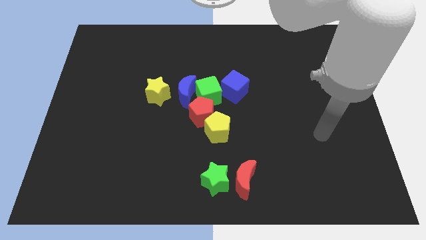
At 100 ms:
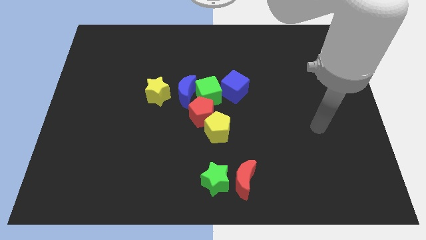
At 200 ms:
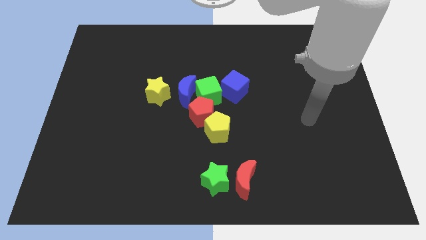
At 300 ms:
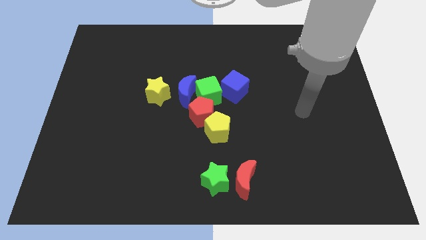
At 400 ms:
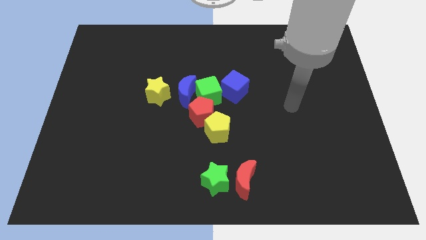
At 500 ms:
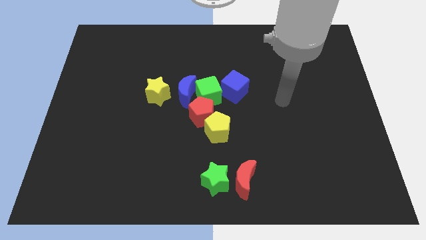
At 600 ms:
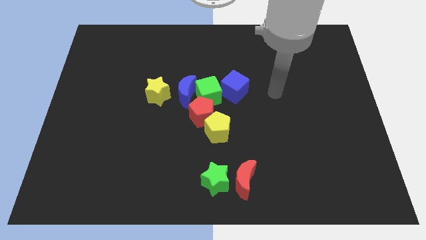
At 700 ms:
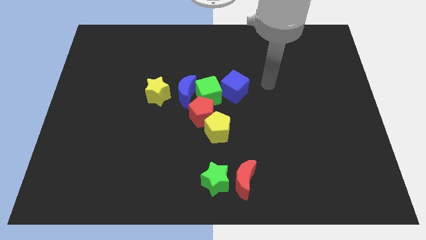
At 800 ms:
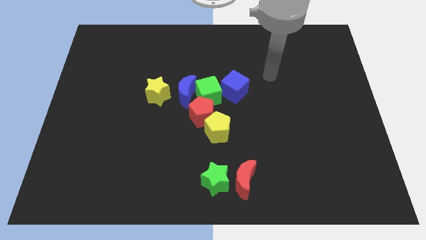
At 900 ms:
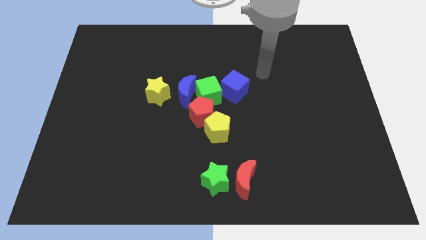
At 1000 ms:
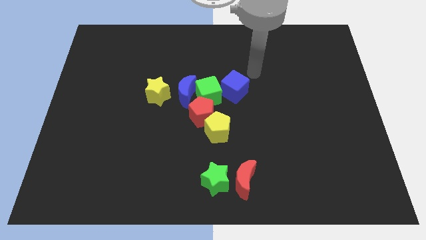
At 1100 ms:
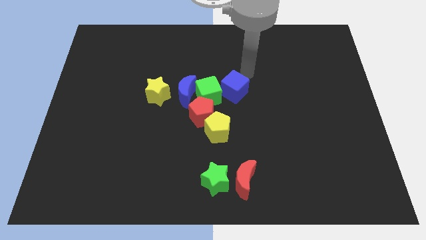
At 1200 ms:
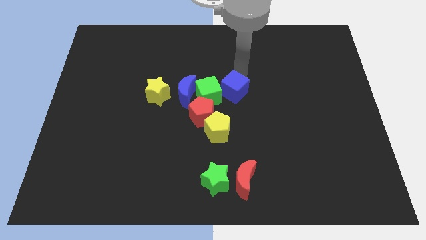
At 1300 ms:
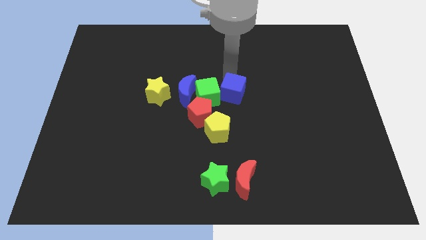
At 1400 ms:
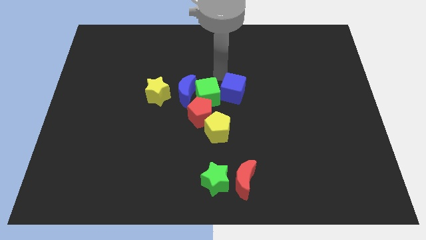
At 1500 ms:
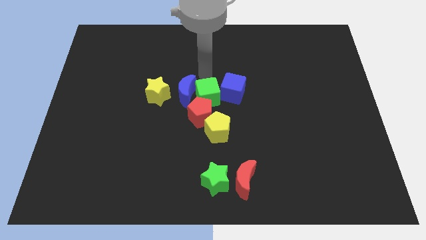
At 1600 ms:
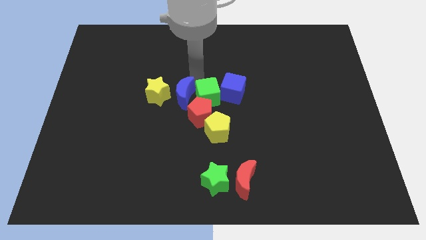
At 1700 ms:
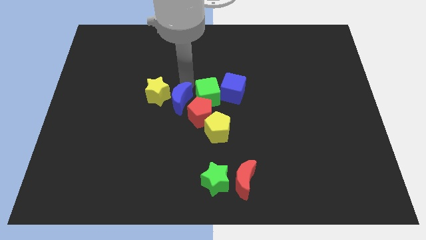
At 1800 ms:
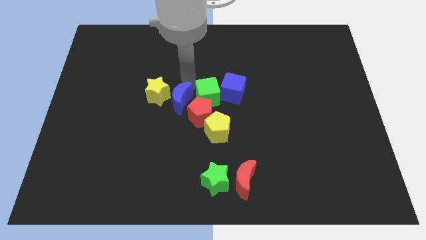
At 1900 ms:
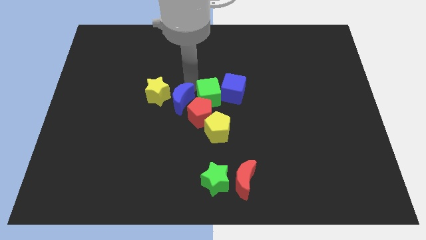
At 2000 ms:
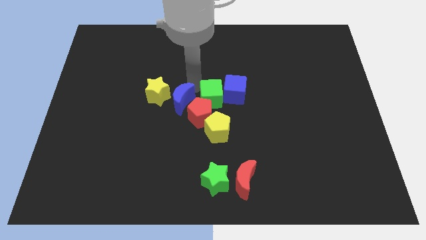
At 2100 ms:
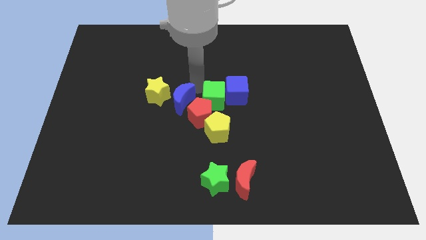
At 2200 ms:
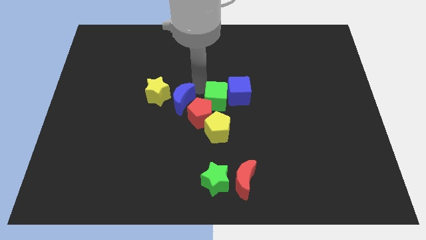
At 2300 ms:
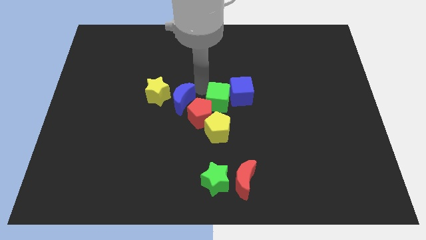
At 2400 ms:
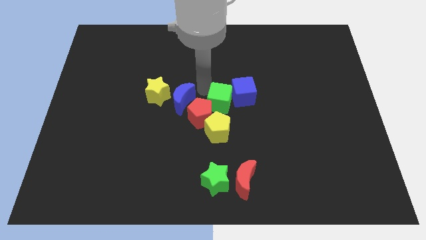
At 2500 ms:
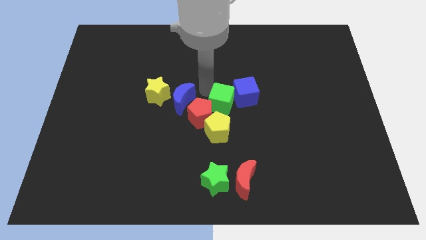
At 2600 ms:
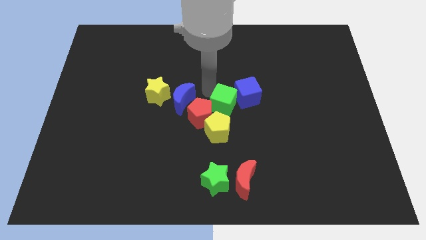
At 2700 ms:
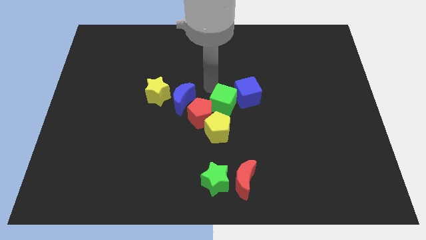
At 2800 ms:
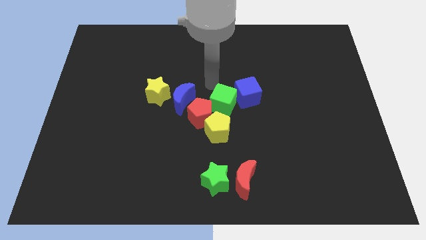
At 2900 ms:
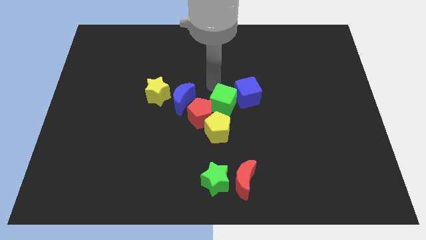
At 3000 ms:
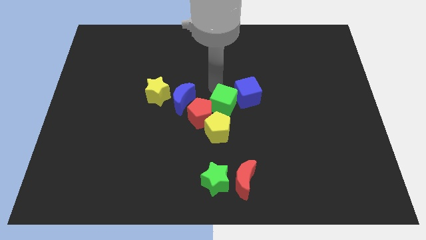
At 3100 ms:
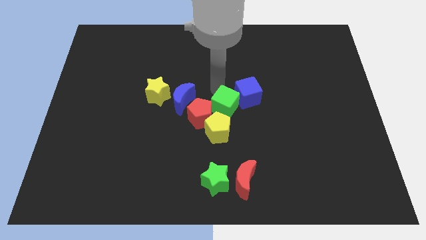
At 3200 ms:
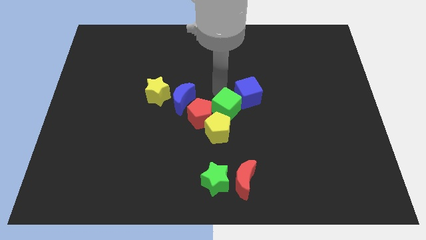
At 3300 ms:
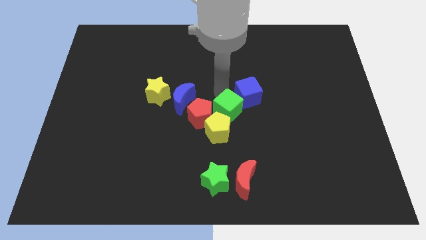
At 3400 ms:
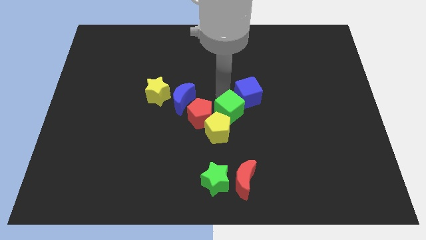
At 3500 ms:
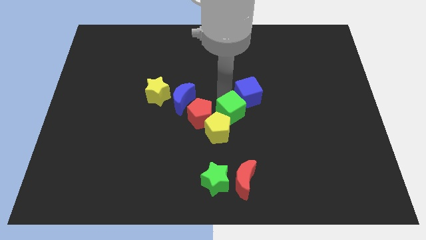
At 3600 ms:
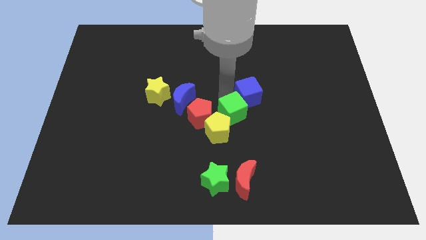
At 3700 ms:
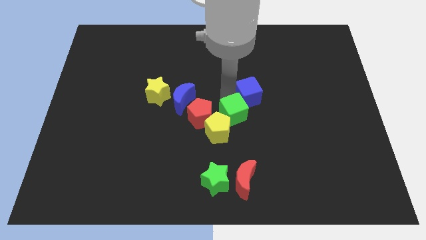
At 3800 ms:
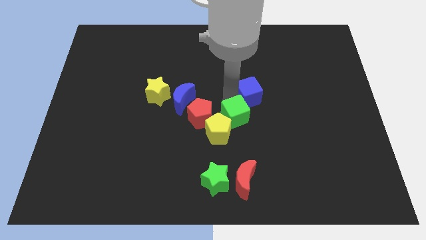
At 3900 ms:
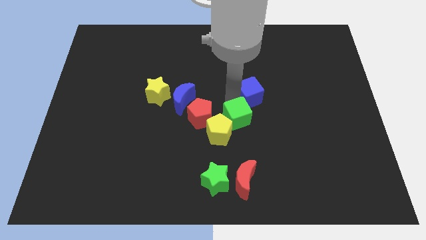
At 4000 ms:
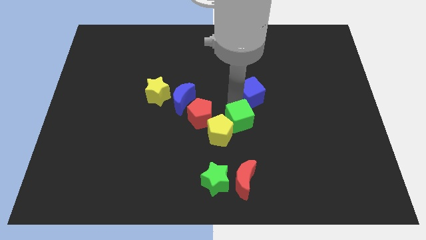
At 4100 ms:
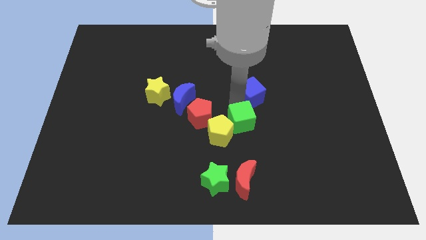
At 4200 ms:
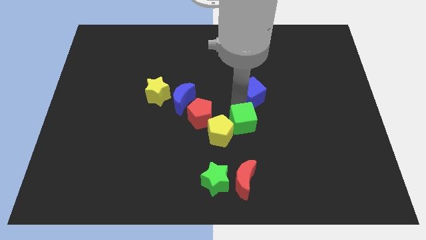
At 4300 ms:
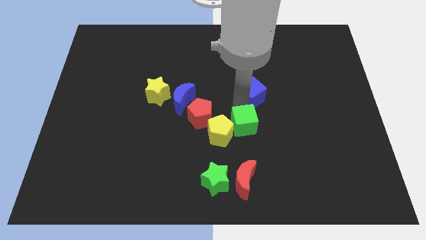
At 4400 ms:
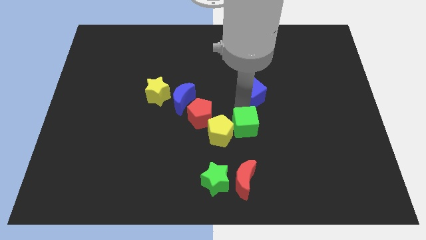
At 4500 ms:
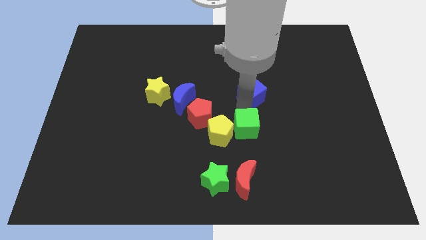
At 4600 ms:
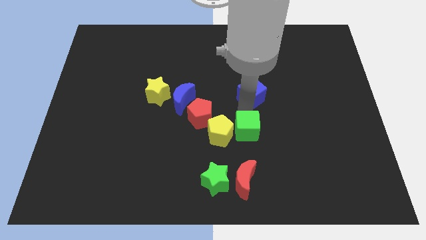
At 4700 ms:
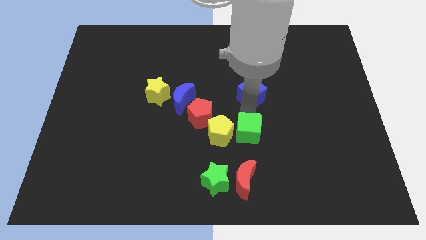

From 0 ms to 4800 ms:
slide the green cube slightly down

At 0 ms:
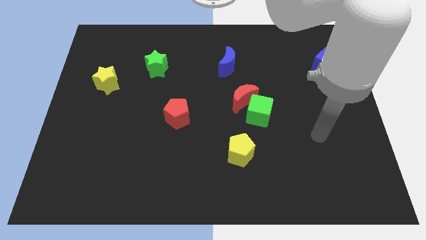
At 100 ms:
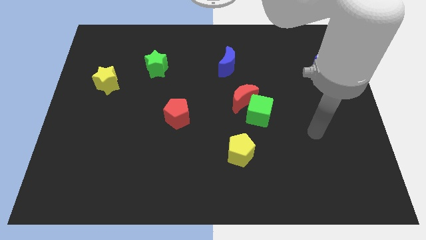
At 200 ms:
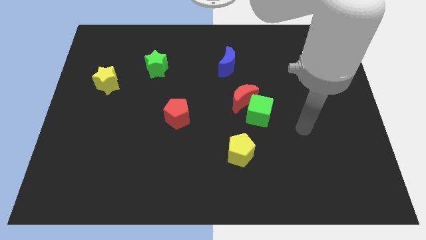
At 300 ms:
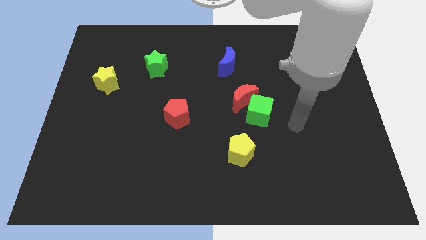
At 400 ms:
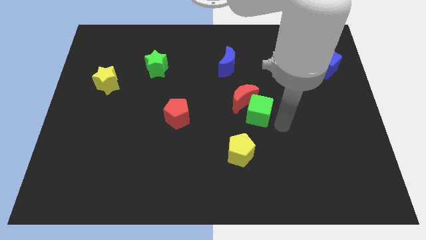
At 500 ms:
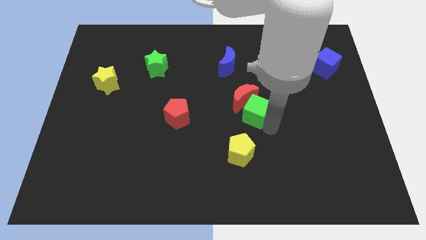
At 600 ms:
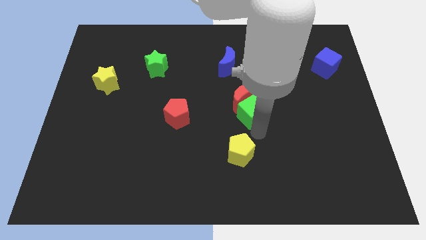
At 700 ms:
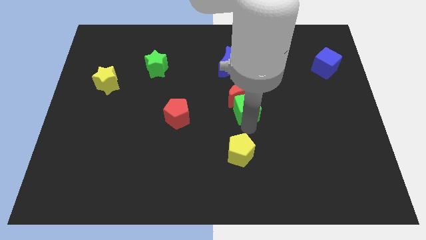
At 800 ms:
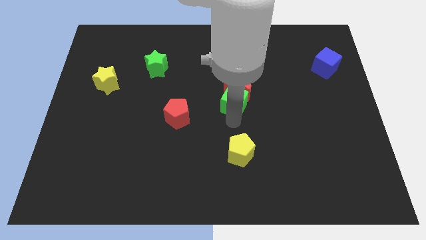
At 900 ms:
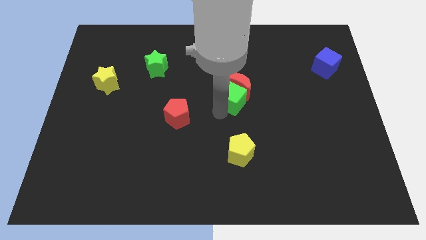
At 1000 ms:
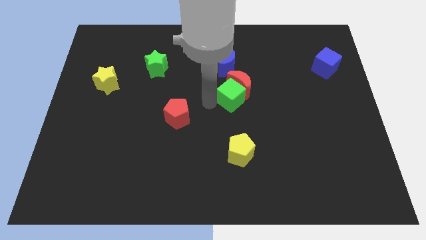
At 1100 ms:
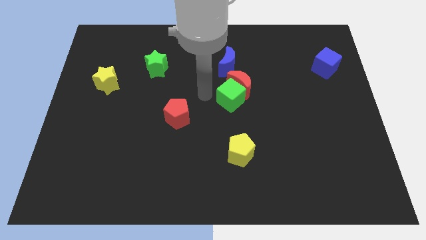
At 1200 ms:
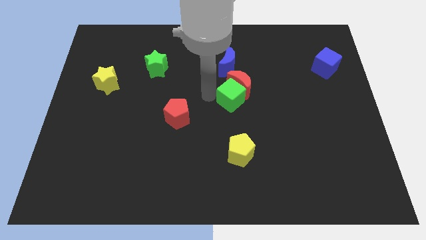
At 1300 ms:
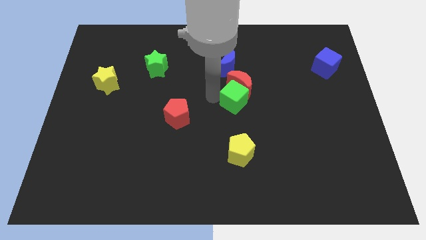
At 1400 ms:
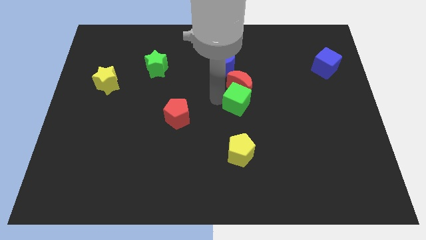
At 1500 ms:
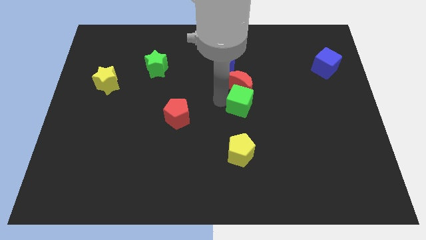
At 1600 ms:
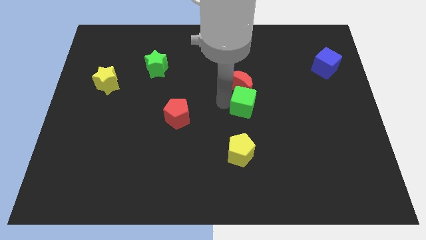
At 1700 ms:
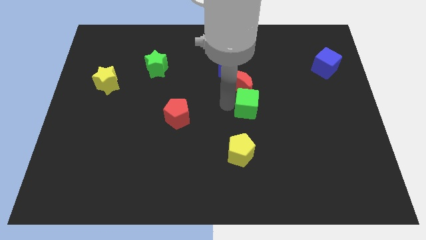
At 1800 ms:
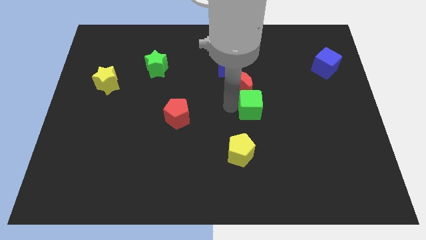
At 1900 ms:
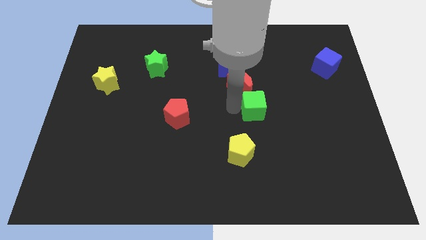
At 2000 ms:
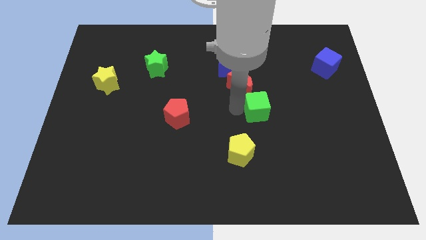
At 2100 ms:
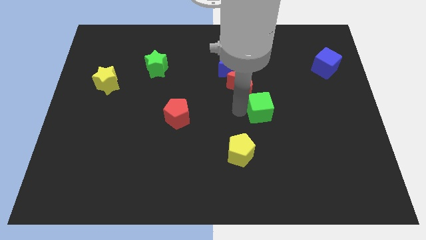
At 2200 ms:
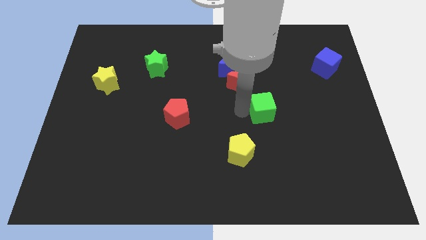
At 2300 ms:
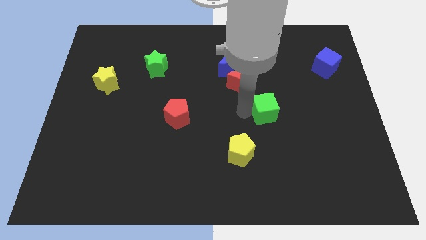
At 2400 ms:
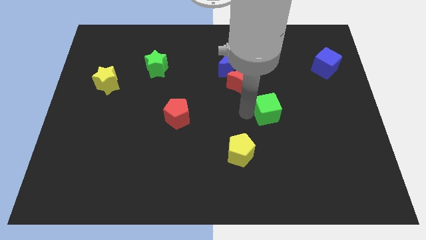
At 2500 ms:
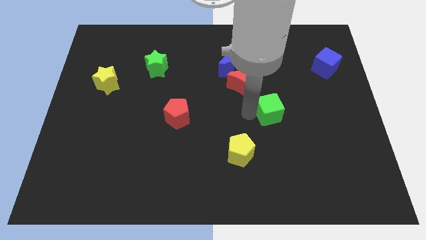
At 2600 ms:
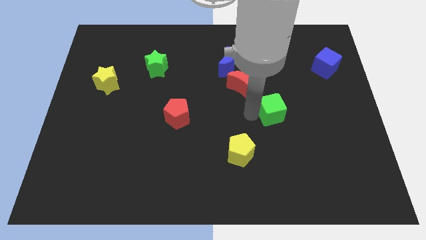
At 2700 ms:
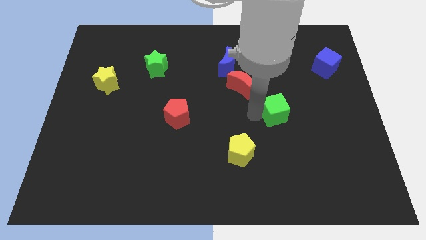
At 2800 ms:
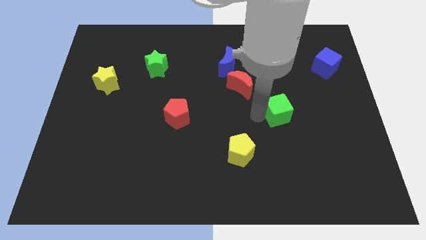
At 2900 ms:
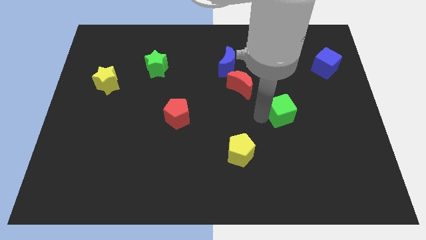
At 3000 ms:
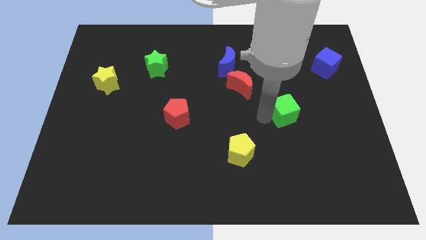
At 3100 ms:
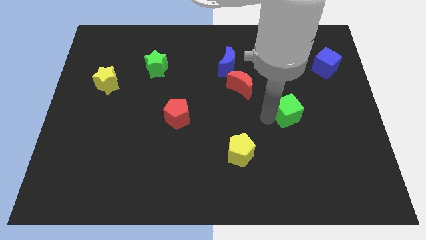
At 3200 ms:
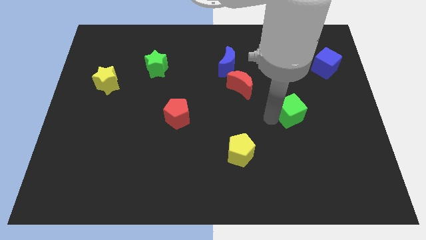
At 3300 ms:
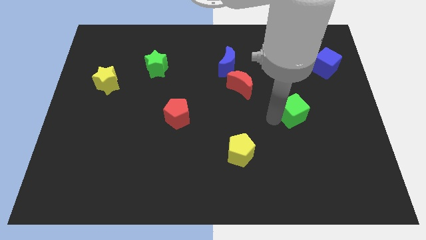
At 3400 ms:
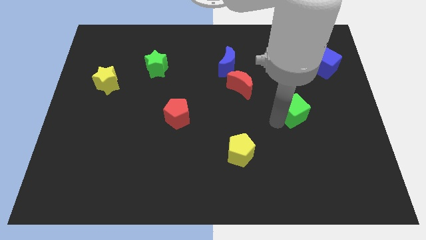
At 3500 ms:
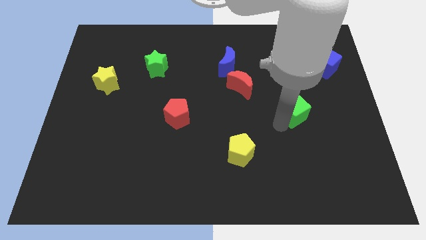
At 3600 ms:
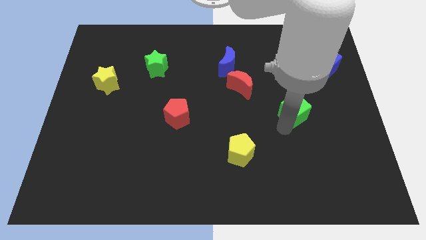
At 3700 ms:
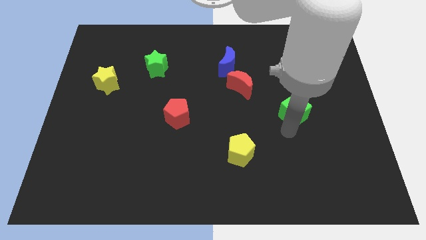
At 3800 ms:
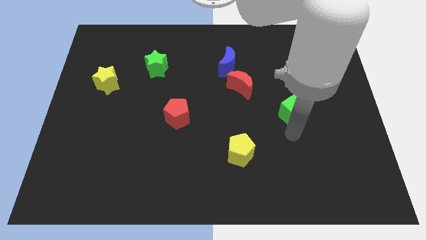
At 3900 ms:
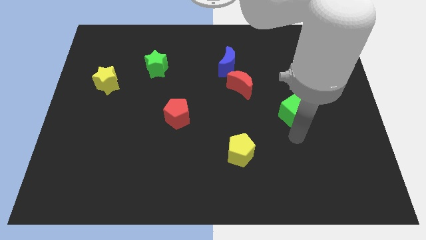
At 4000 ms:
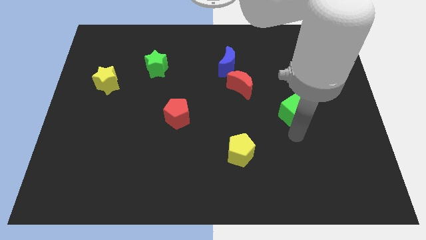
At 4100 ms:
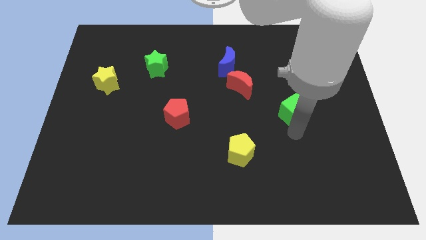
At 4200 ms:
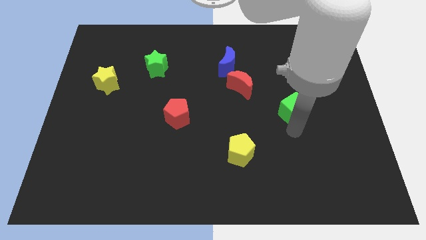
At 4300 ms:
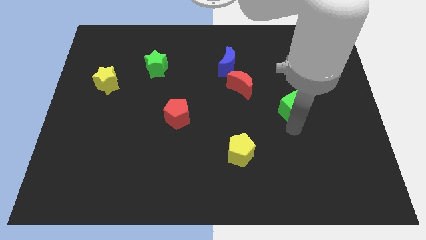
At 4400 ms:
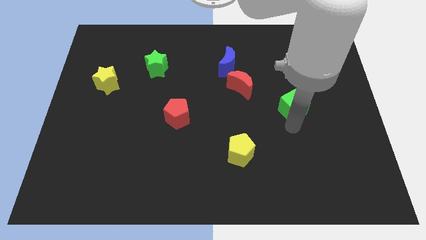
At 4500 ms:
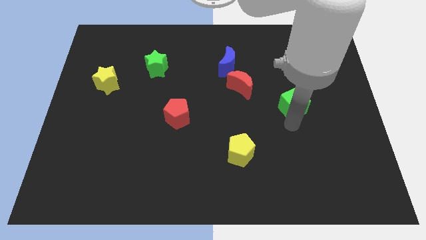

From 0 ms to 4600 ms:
slide the green cube slightly upwards and then right
